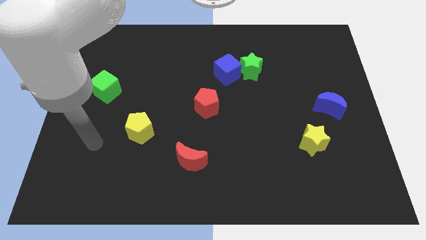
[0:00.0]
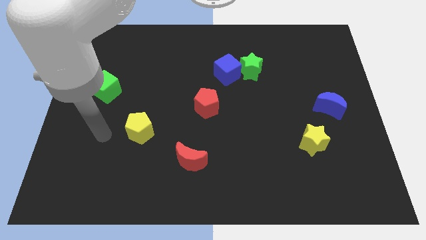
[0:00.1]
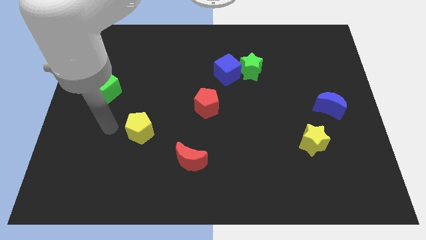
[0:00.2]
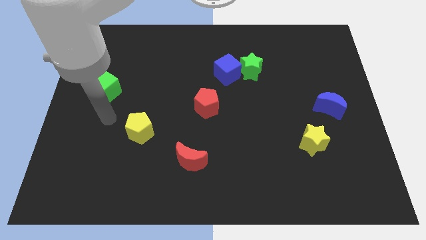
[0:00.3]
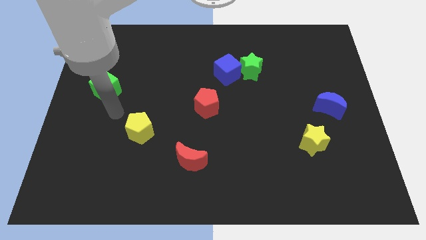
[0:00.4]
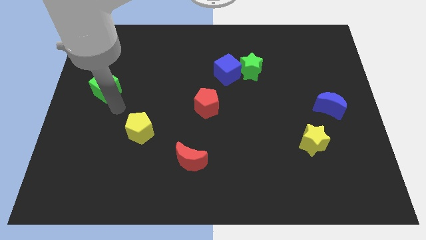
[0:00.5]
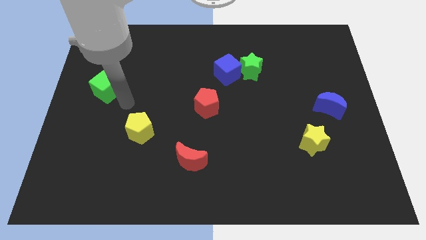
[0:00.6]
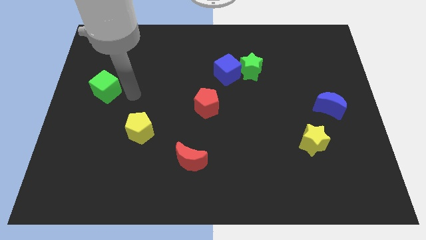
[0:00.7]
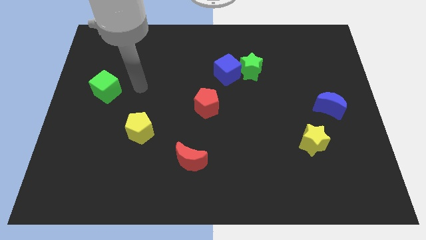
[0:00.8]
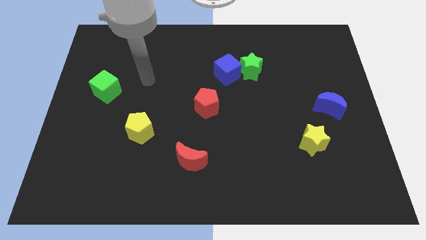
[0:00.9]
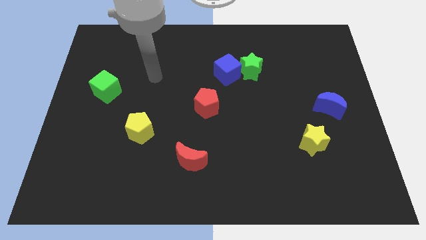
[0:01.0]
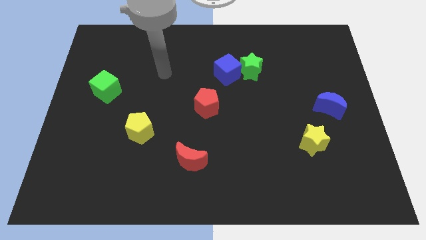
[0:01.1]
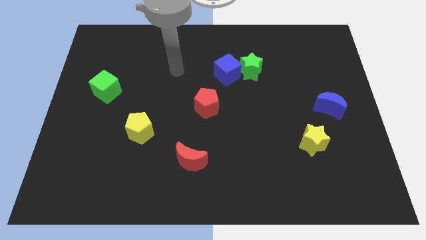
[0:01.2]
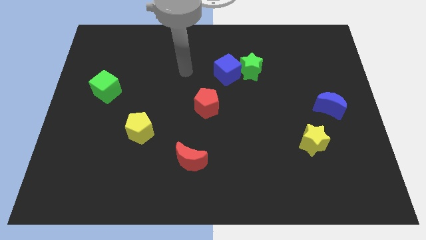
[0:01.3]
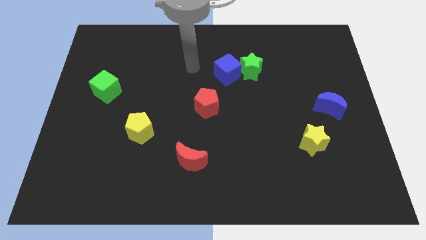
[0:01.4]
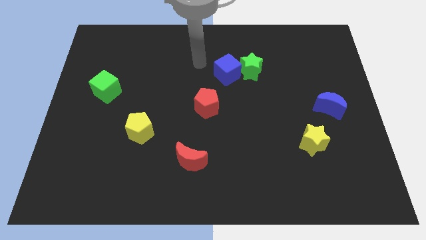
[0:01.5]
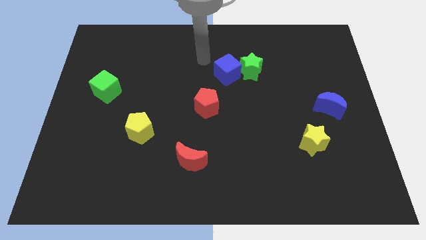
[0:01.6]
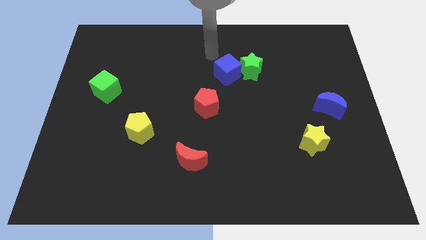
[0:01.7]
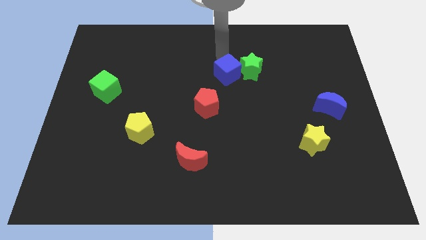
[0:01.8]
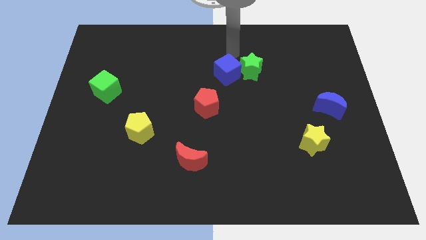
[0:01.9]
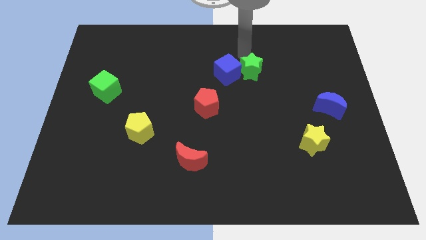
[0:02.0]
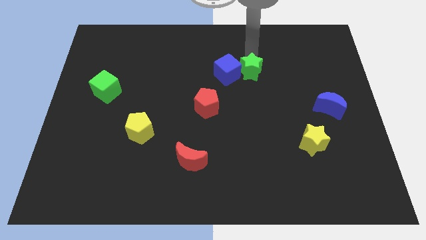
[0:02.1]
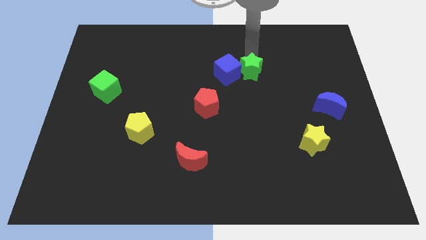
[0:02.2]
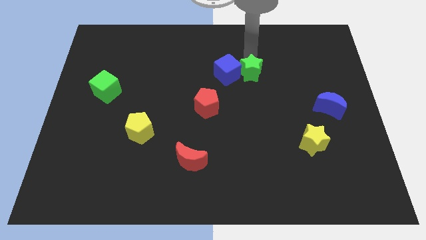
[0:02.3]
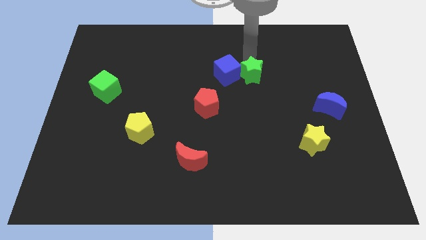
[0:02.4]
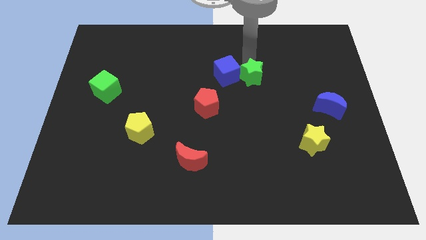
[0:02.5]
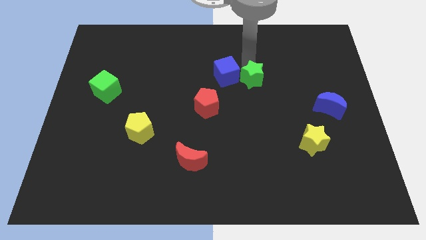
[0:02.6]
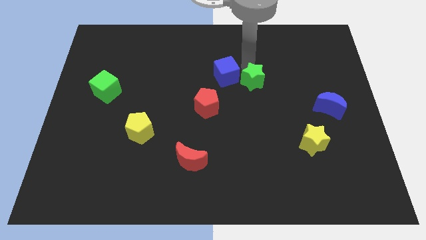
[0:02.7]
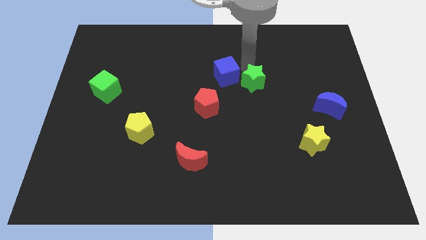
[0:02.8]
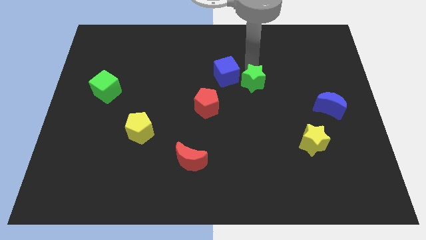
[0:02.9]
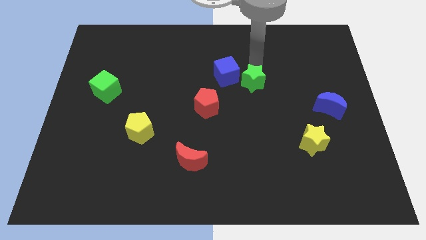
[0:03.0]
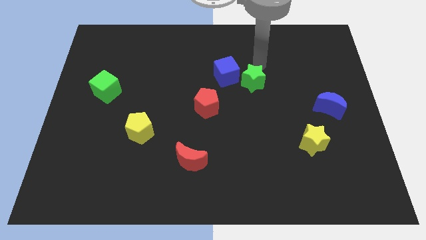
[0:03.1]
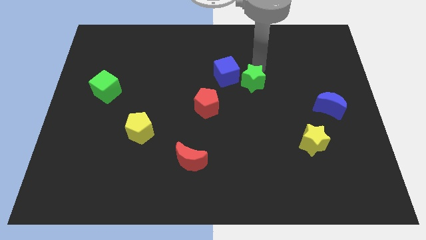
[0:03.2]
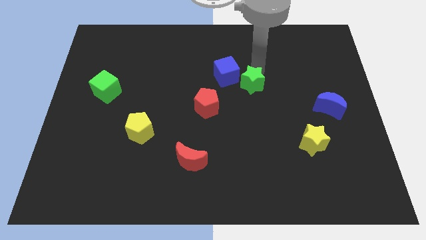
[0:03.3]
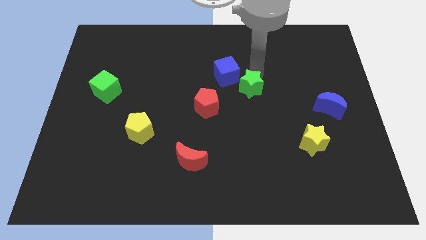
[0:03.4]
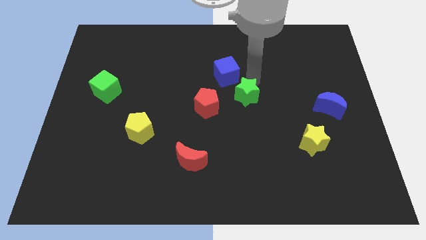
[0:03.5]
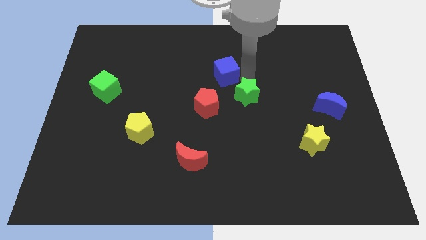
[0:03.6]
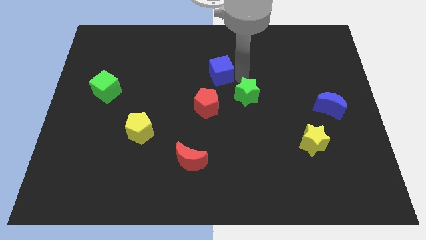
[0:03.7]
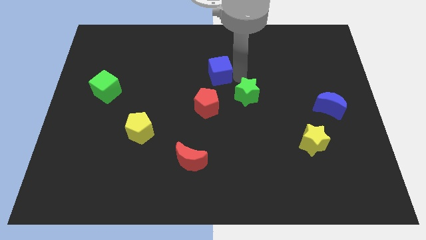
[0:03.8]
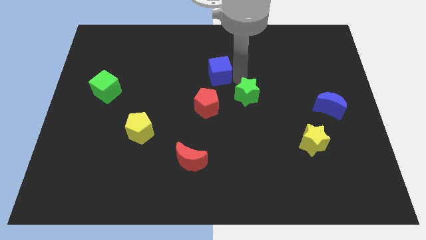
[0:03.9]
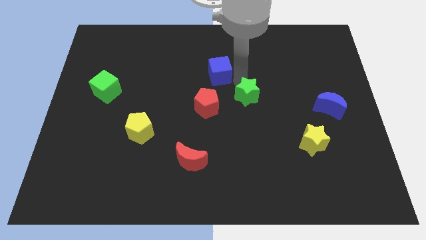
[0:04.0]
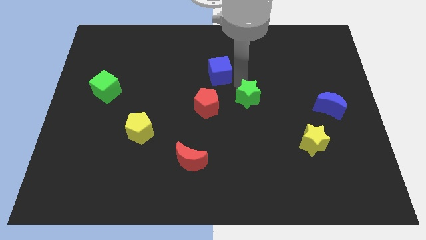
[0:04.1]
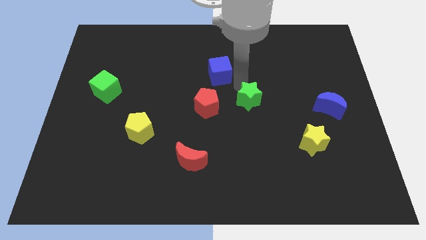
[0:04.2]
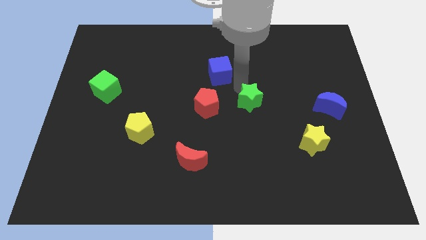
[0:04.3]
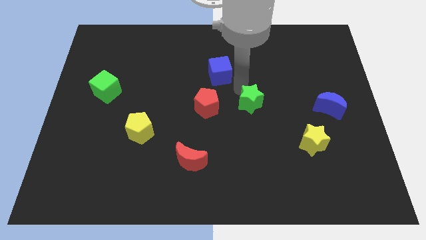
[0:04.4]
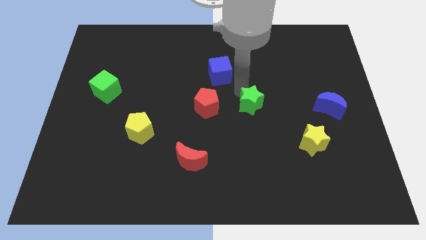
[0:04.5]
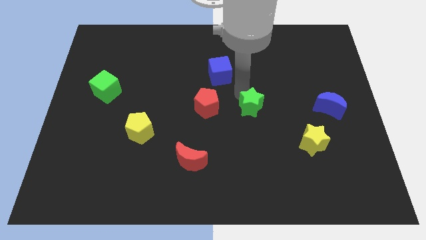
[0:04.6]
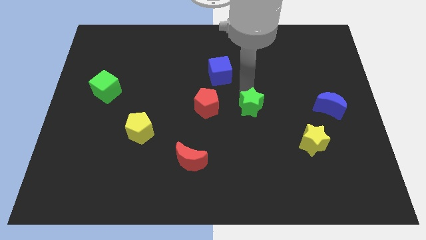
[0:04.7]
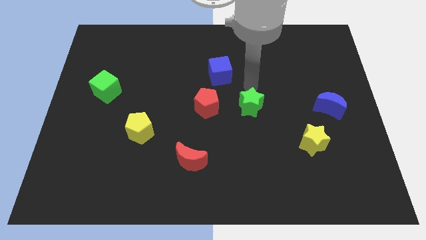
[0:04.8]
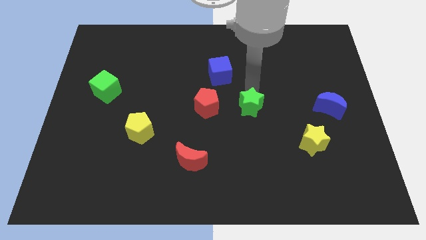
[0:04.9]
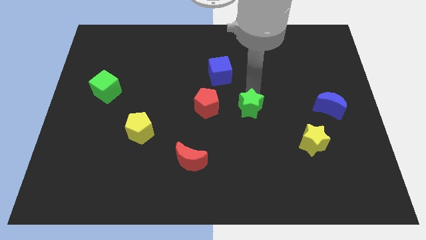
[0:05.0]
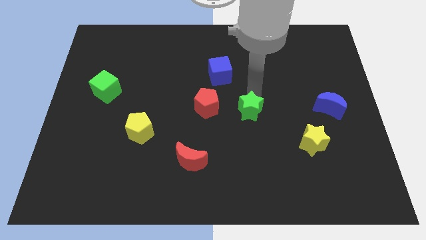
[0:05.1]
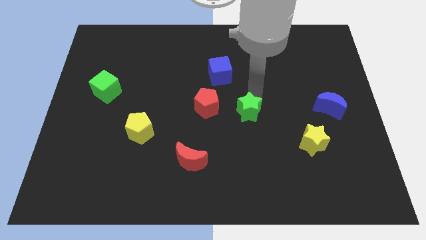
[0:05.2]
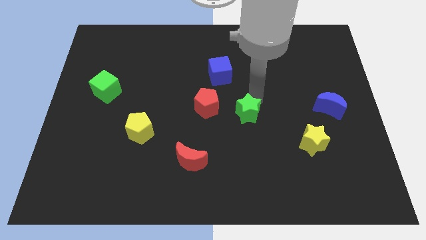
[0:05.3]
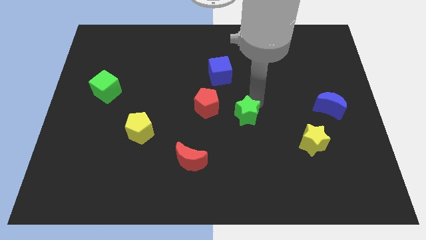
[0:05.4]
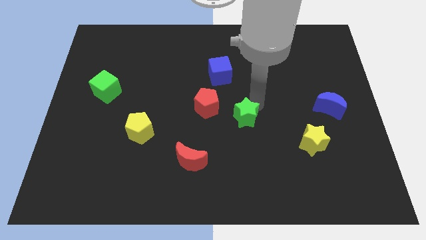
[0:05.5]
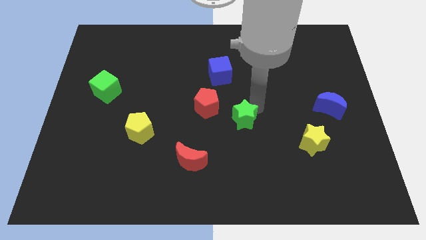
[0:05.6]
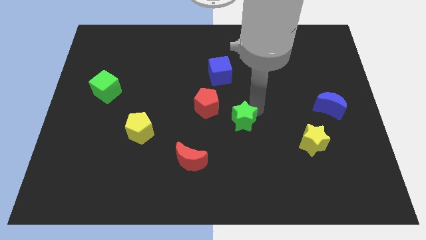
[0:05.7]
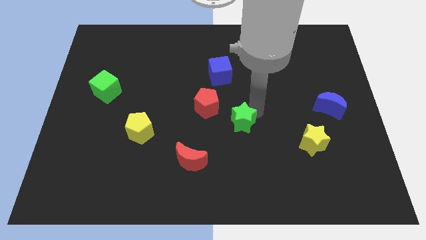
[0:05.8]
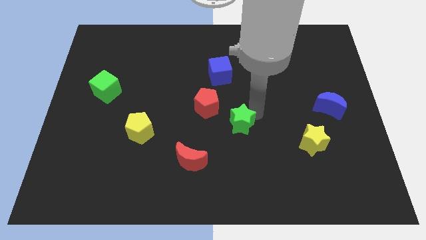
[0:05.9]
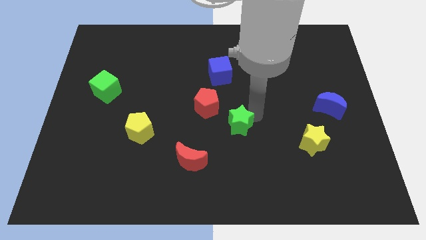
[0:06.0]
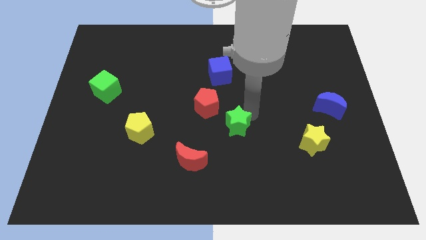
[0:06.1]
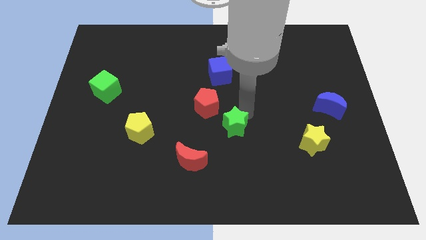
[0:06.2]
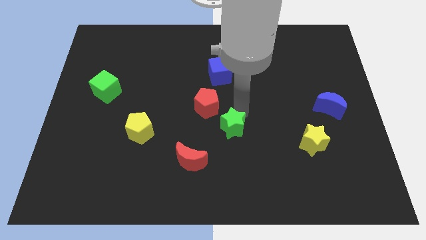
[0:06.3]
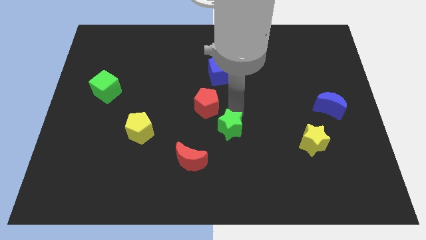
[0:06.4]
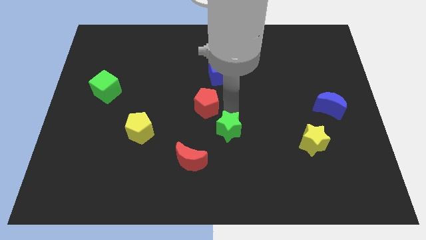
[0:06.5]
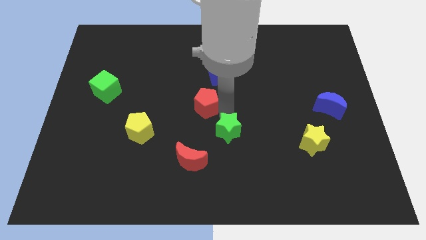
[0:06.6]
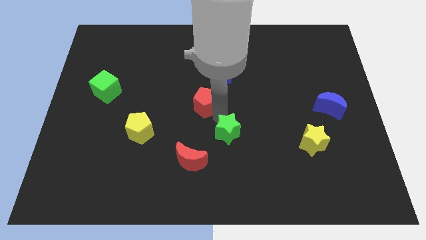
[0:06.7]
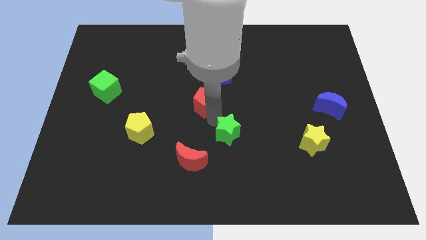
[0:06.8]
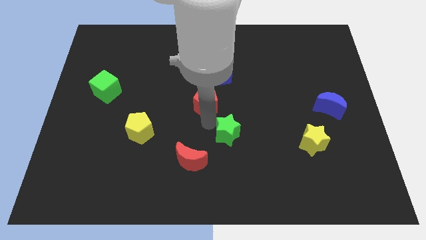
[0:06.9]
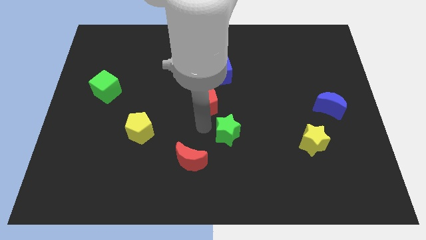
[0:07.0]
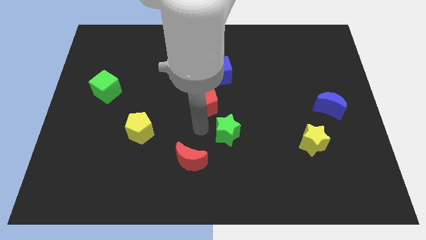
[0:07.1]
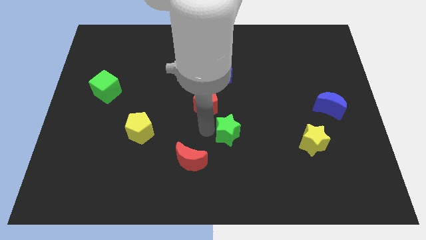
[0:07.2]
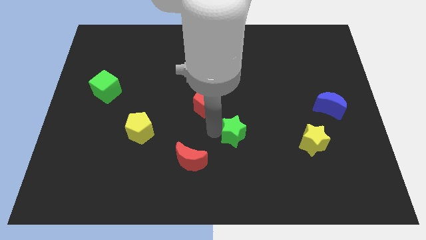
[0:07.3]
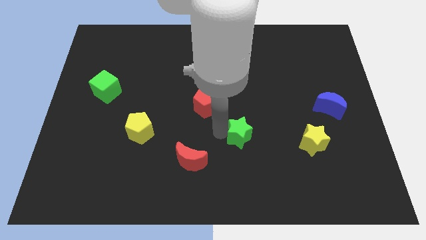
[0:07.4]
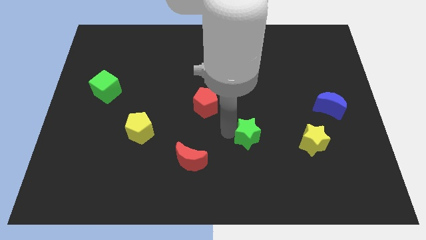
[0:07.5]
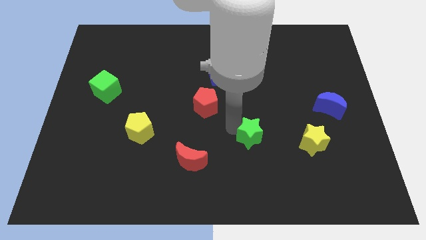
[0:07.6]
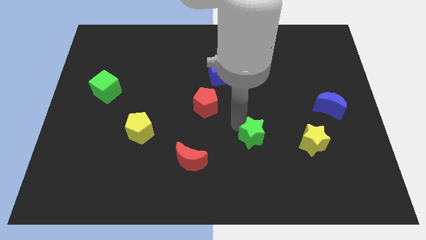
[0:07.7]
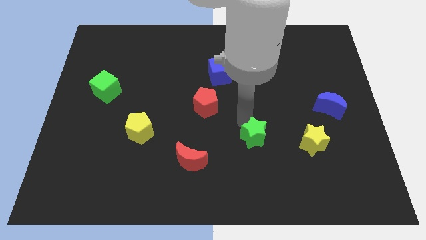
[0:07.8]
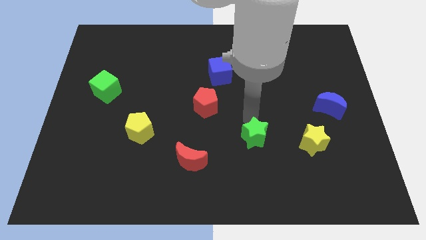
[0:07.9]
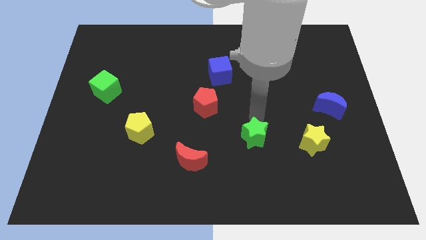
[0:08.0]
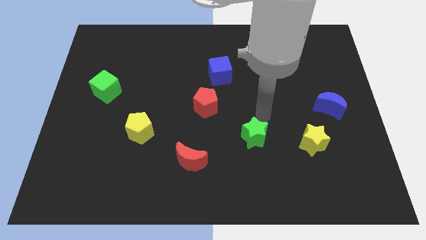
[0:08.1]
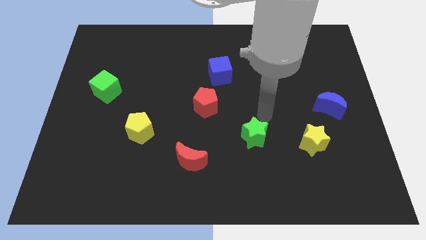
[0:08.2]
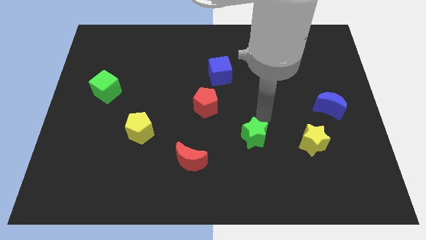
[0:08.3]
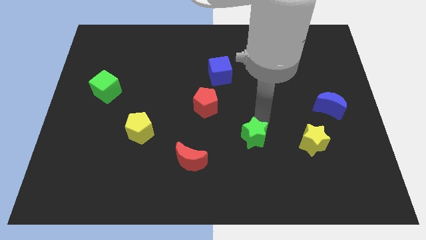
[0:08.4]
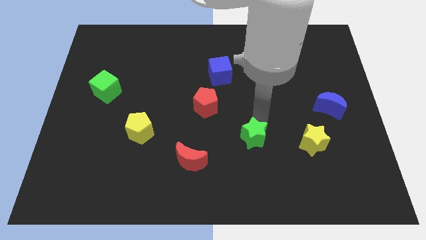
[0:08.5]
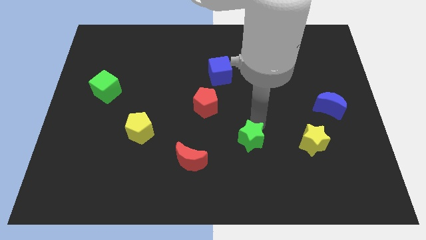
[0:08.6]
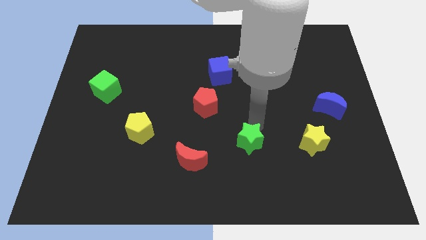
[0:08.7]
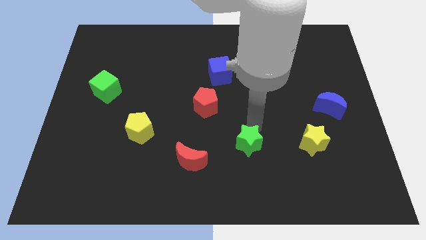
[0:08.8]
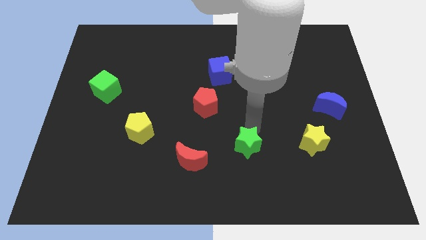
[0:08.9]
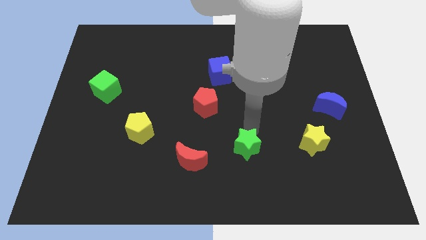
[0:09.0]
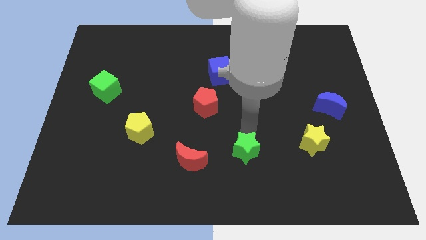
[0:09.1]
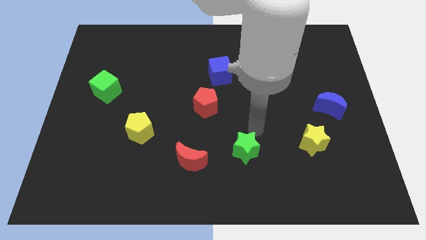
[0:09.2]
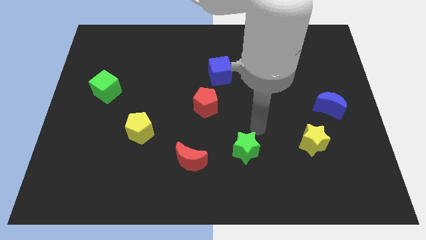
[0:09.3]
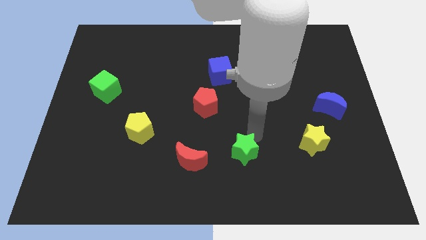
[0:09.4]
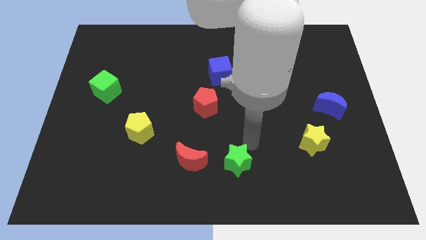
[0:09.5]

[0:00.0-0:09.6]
move the green star to the bottom side
